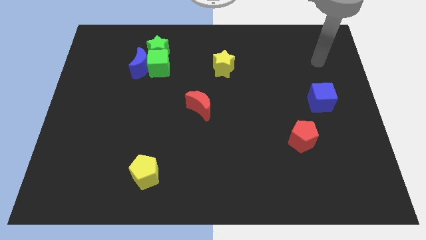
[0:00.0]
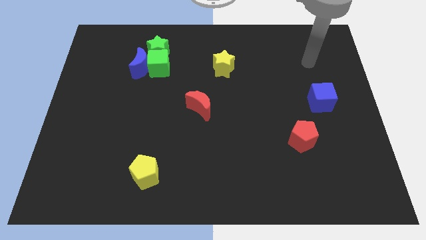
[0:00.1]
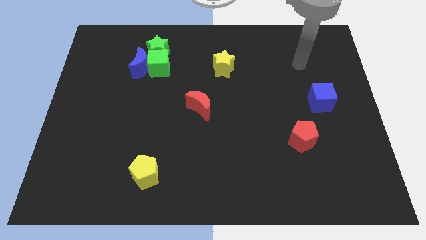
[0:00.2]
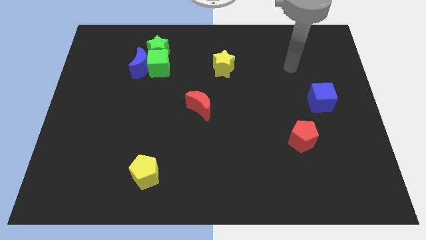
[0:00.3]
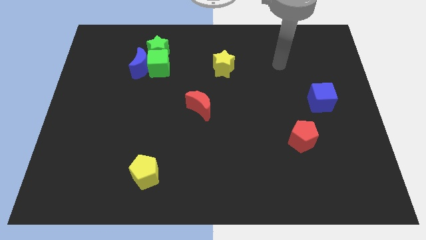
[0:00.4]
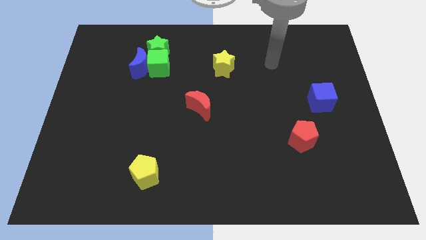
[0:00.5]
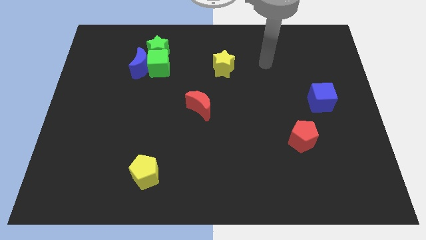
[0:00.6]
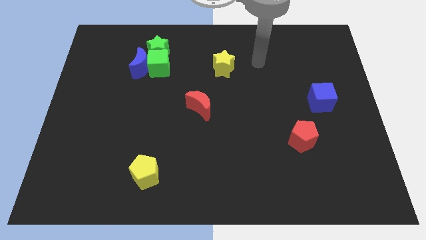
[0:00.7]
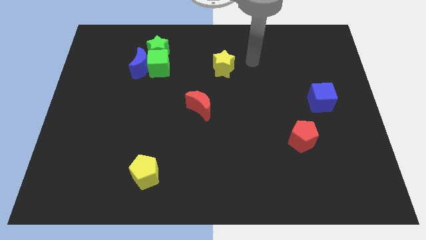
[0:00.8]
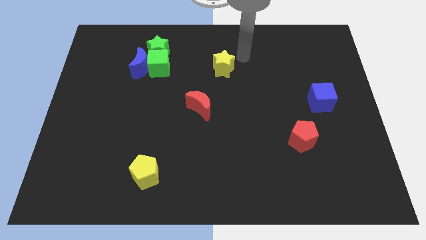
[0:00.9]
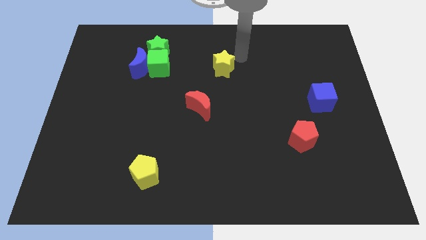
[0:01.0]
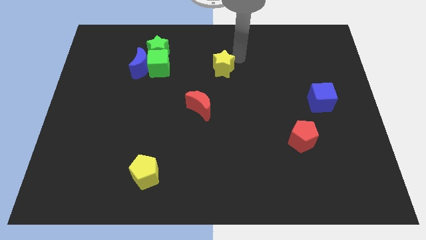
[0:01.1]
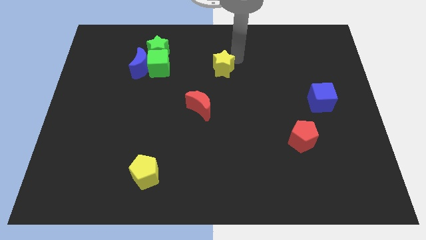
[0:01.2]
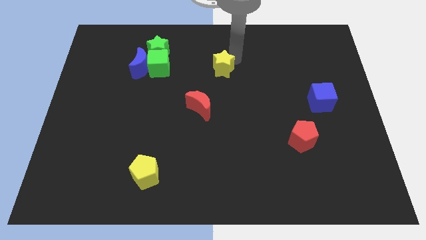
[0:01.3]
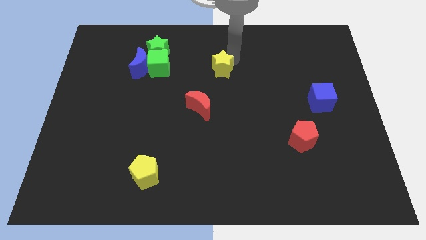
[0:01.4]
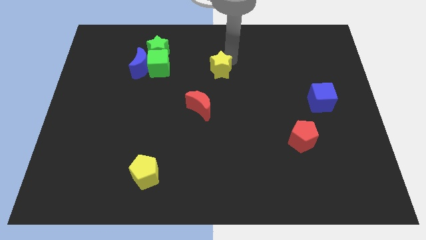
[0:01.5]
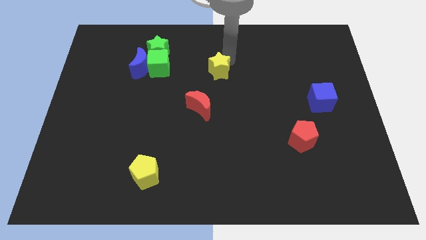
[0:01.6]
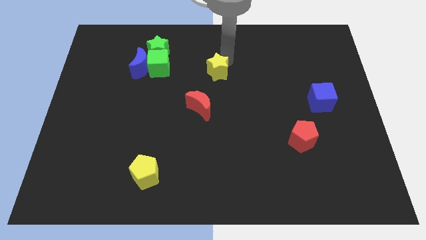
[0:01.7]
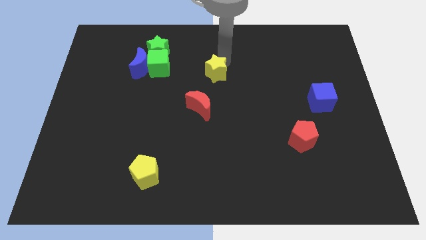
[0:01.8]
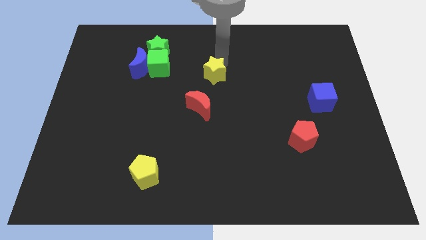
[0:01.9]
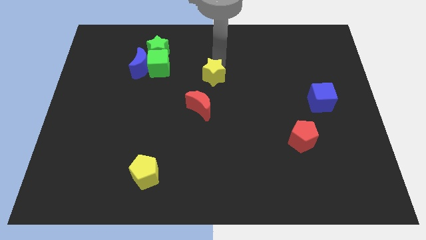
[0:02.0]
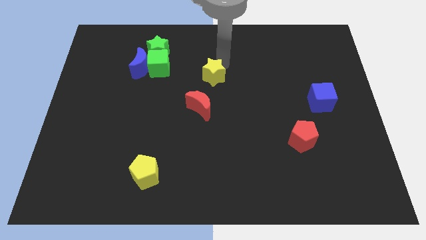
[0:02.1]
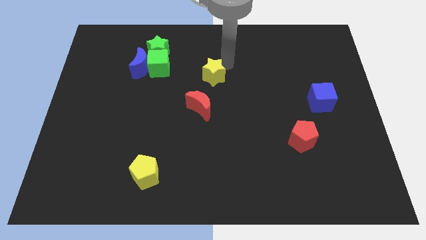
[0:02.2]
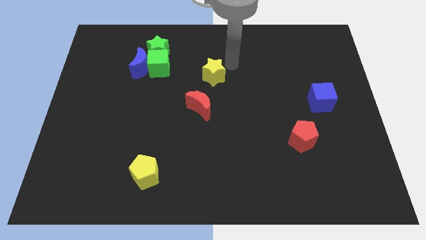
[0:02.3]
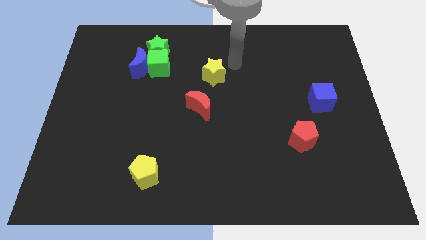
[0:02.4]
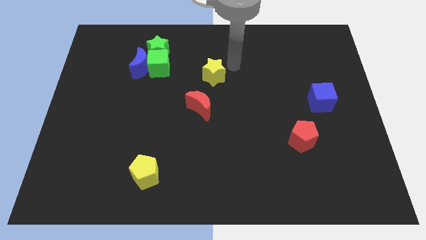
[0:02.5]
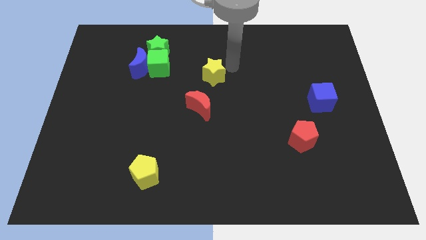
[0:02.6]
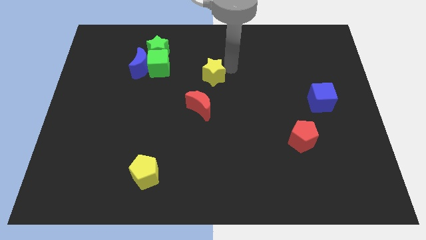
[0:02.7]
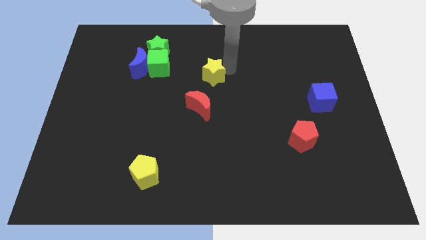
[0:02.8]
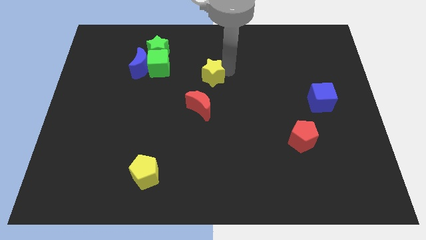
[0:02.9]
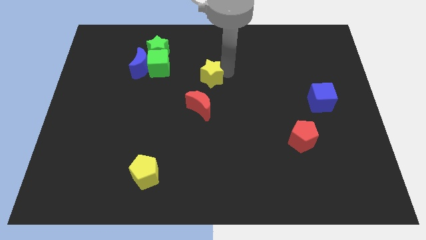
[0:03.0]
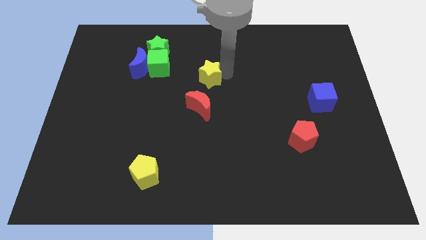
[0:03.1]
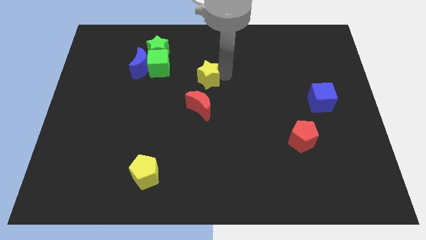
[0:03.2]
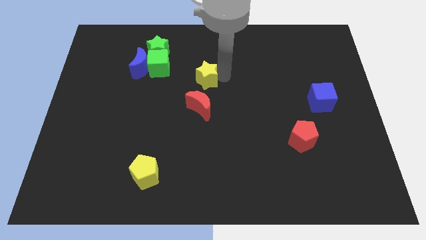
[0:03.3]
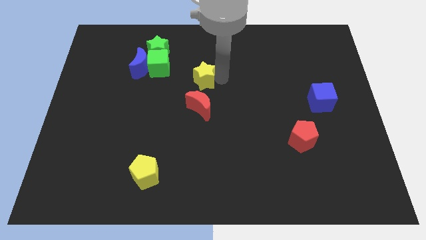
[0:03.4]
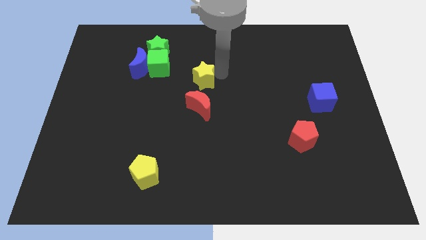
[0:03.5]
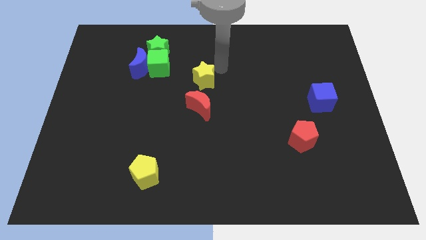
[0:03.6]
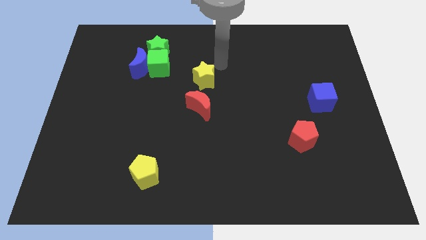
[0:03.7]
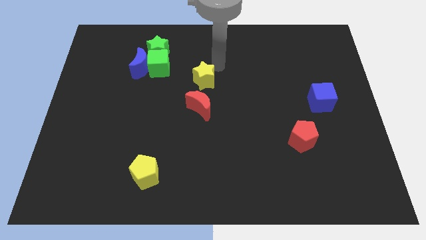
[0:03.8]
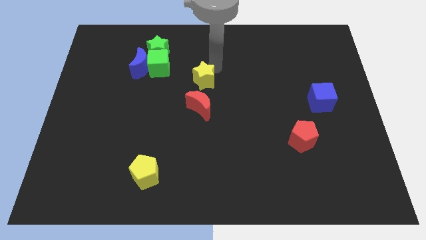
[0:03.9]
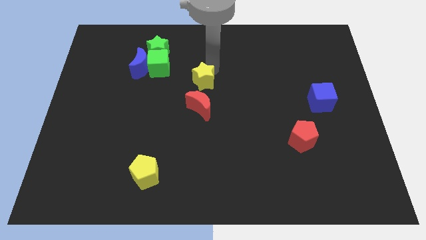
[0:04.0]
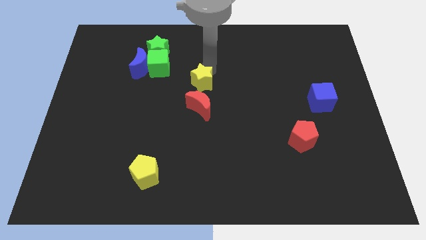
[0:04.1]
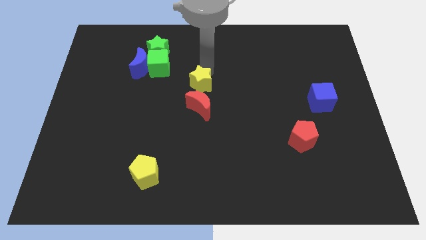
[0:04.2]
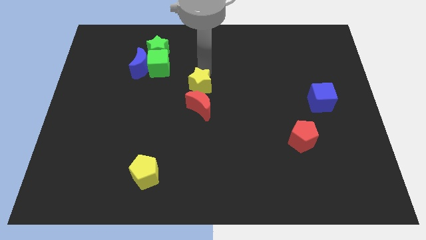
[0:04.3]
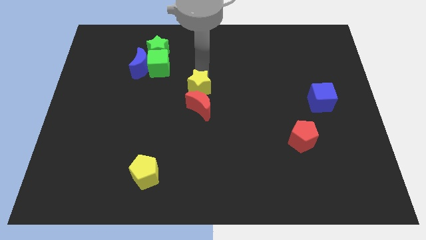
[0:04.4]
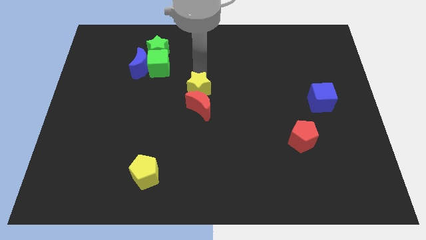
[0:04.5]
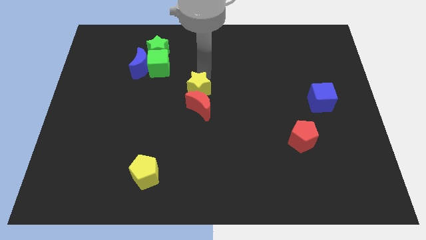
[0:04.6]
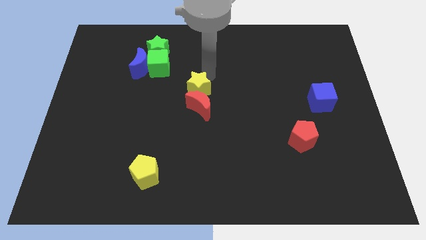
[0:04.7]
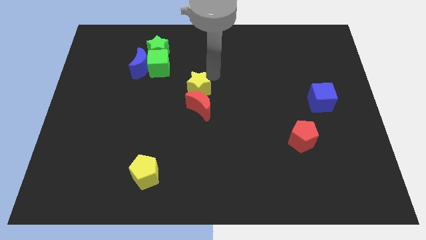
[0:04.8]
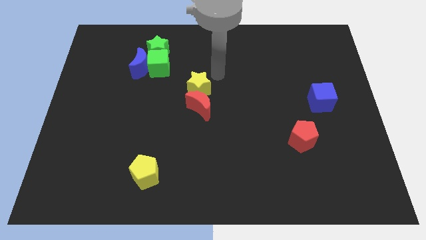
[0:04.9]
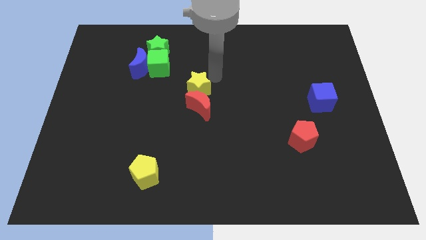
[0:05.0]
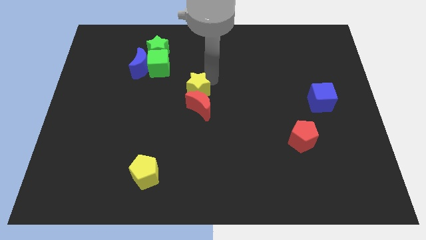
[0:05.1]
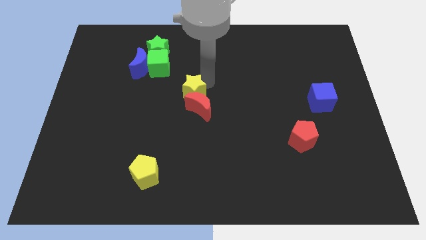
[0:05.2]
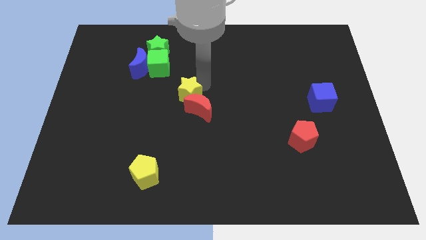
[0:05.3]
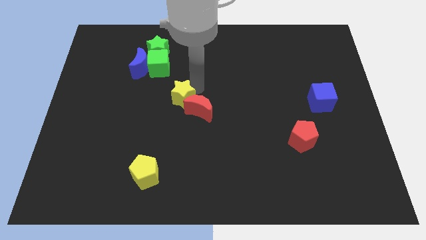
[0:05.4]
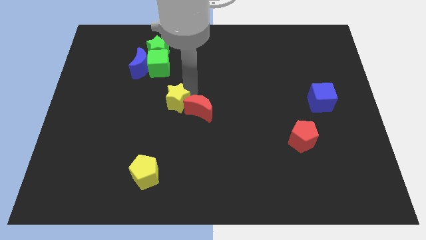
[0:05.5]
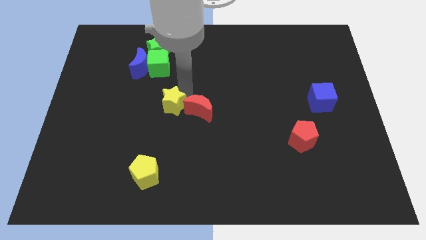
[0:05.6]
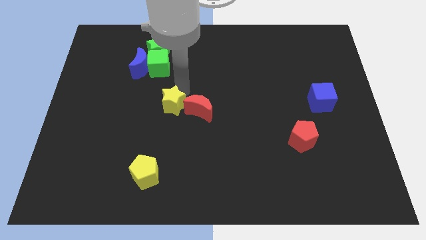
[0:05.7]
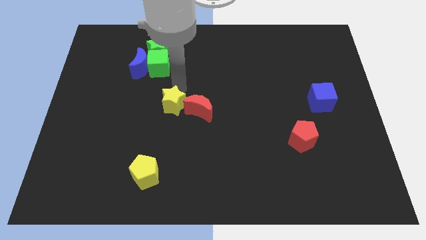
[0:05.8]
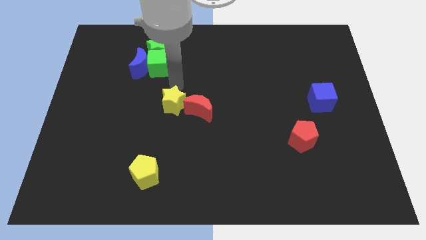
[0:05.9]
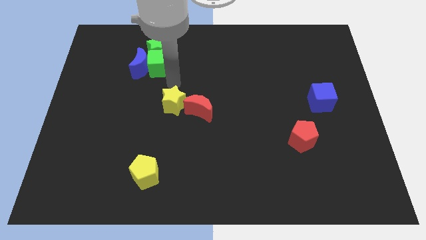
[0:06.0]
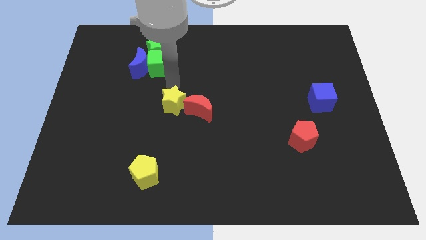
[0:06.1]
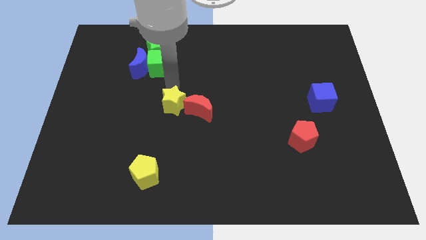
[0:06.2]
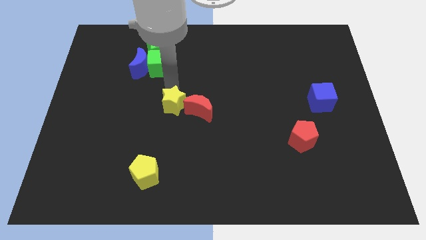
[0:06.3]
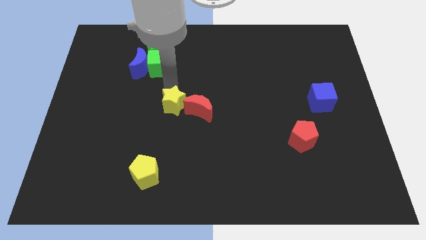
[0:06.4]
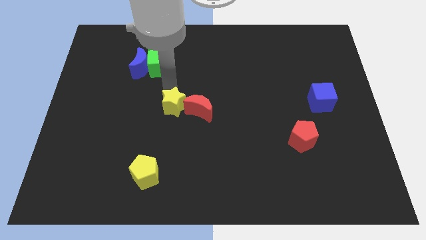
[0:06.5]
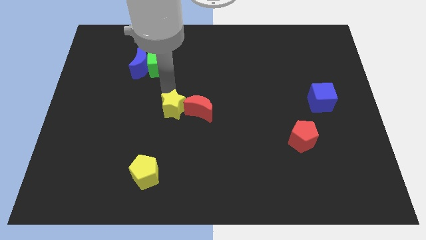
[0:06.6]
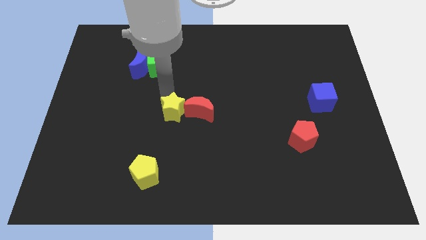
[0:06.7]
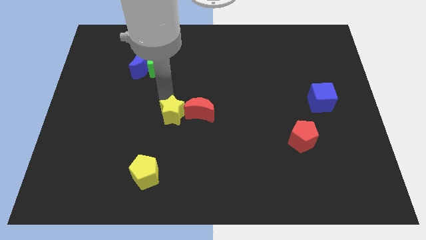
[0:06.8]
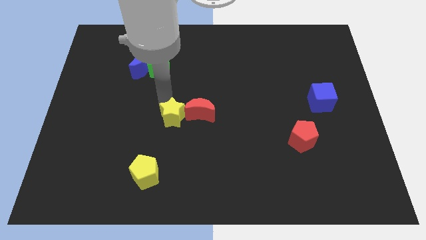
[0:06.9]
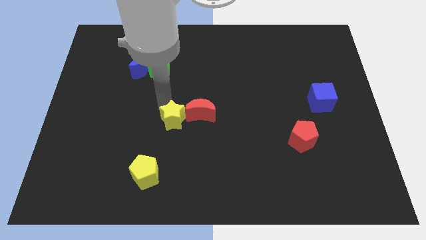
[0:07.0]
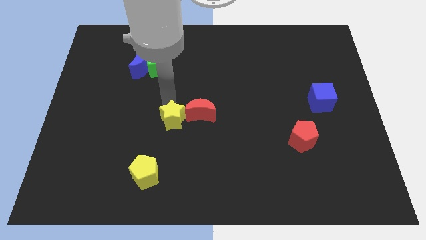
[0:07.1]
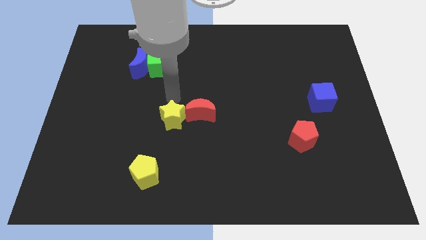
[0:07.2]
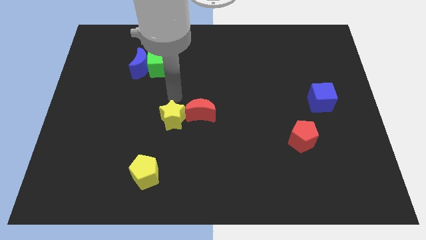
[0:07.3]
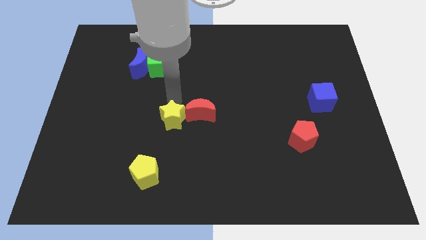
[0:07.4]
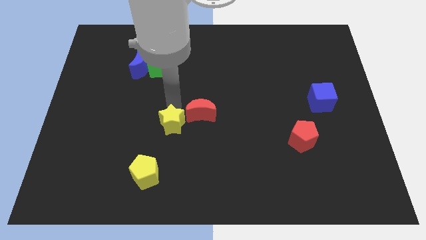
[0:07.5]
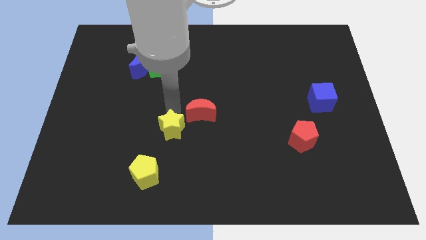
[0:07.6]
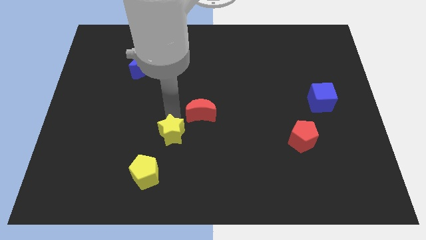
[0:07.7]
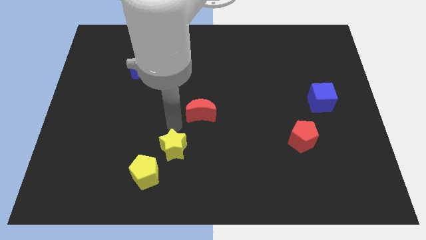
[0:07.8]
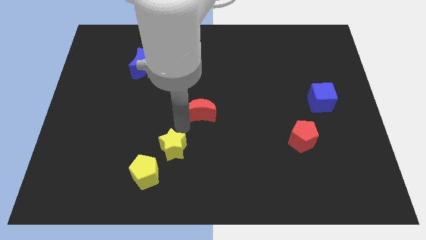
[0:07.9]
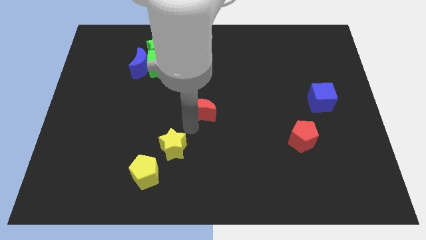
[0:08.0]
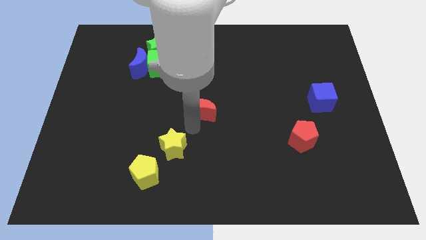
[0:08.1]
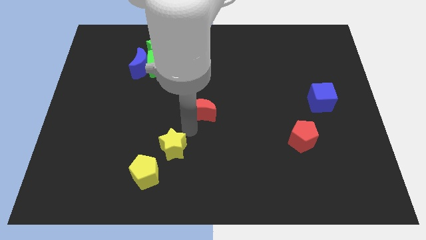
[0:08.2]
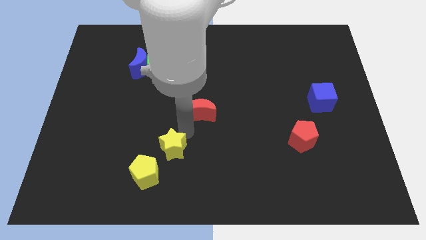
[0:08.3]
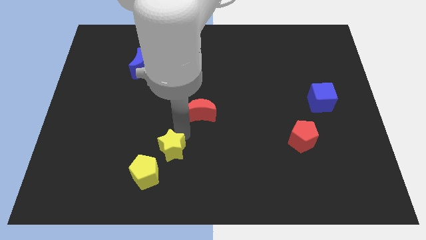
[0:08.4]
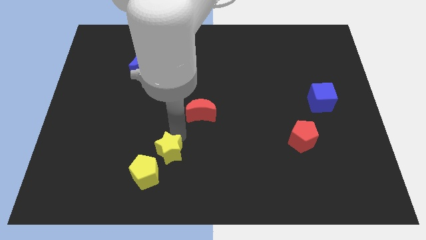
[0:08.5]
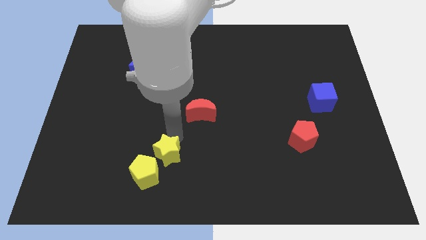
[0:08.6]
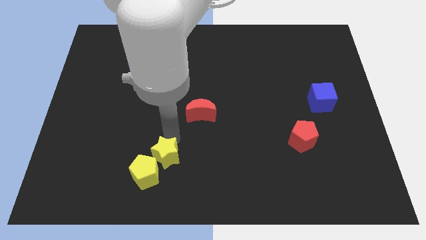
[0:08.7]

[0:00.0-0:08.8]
move the yellow star close to the yellow pentagon
